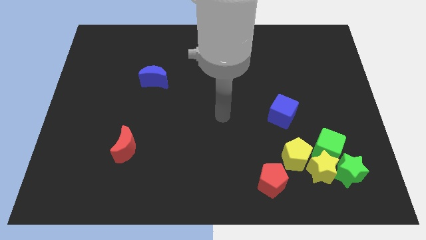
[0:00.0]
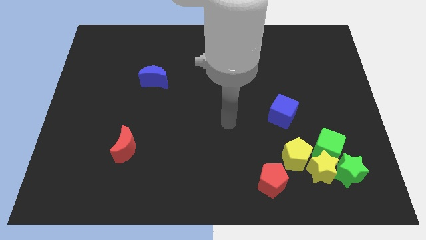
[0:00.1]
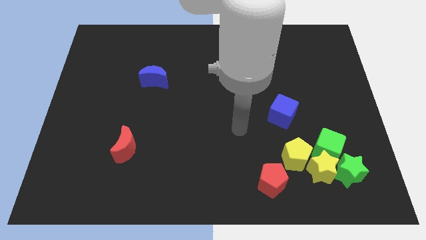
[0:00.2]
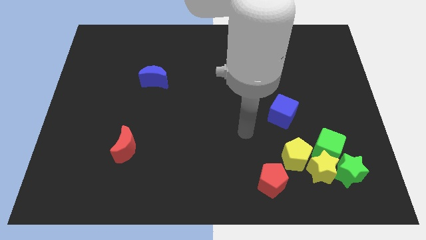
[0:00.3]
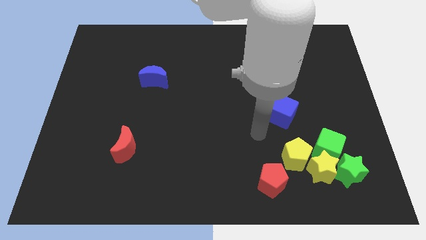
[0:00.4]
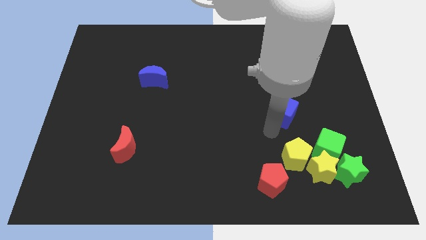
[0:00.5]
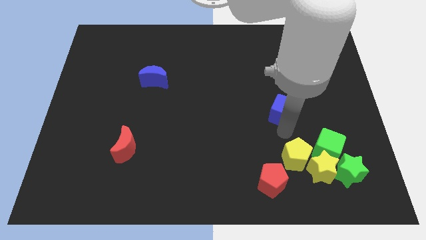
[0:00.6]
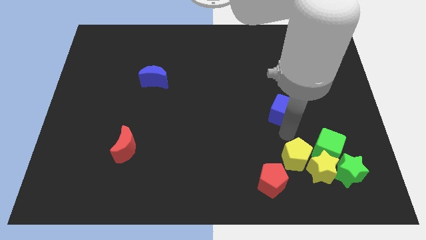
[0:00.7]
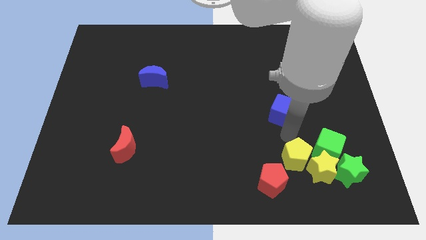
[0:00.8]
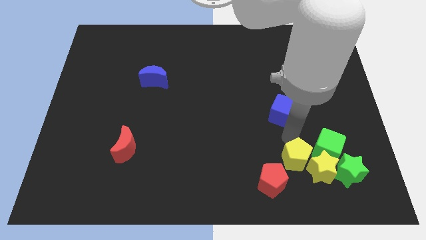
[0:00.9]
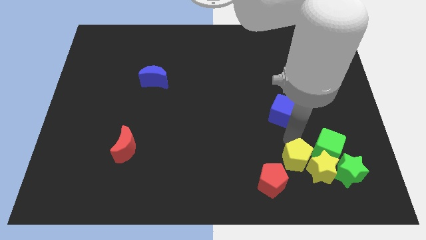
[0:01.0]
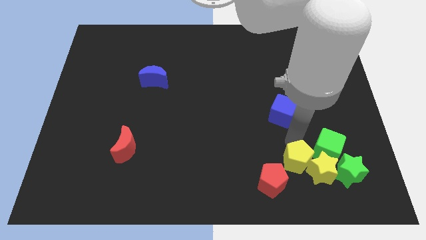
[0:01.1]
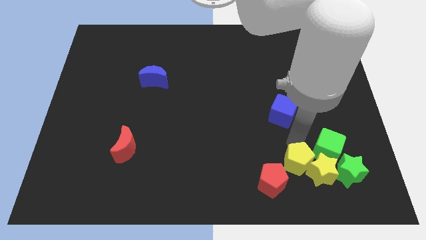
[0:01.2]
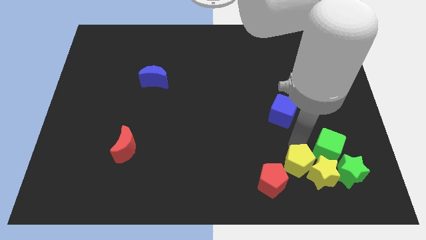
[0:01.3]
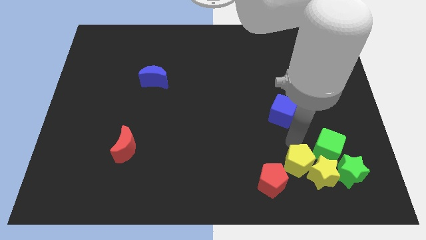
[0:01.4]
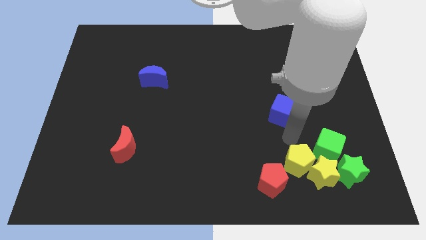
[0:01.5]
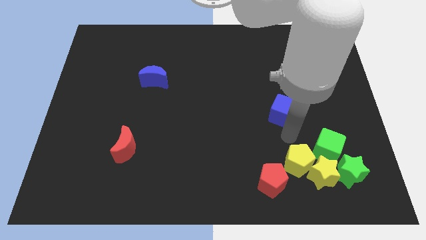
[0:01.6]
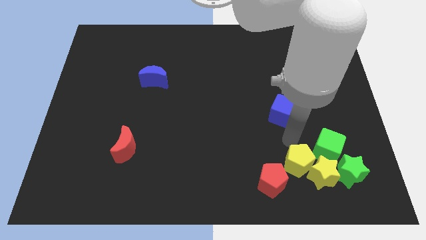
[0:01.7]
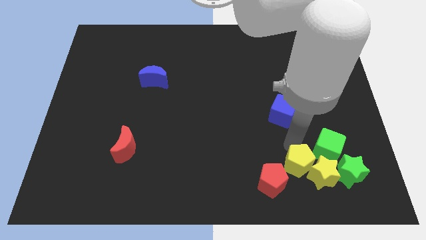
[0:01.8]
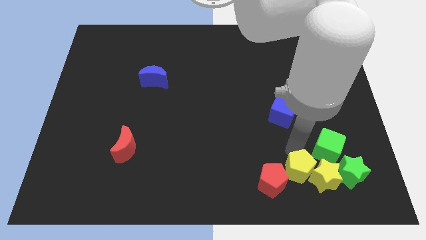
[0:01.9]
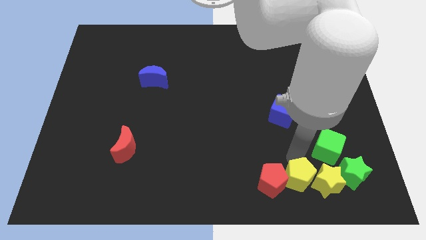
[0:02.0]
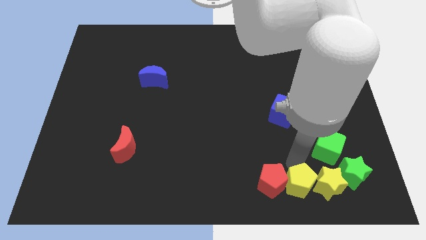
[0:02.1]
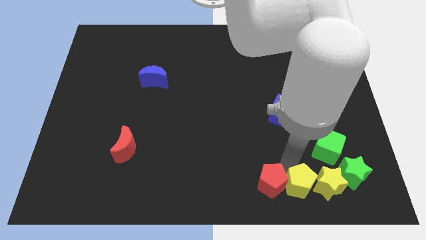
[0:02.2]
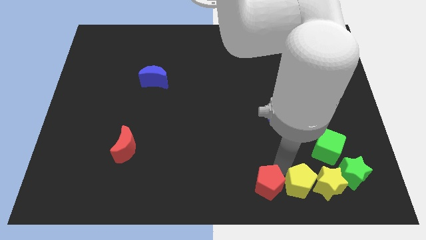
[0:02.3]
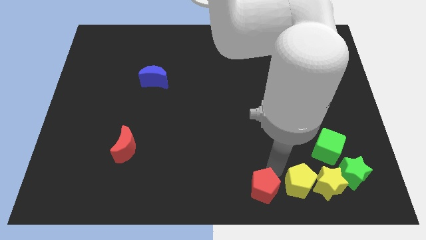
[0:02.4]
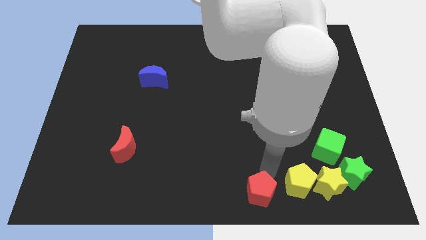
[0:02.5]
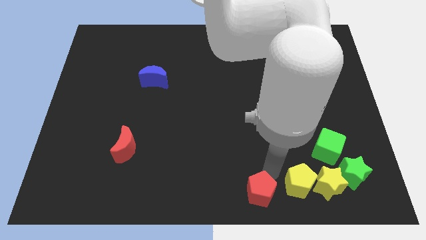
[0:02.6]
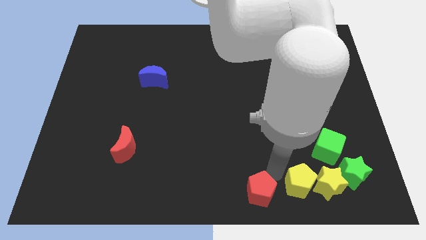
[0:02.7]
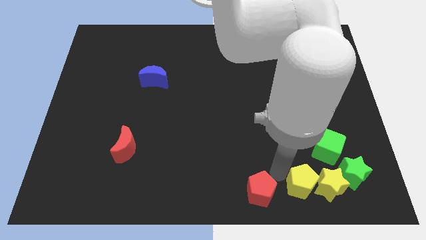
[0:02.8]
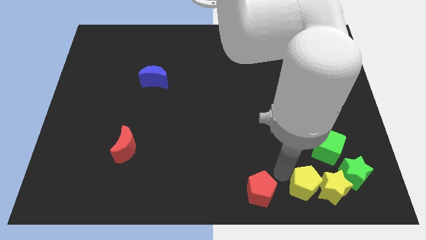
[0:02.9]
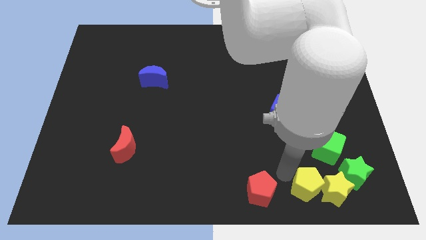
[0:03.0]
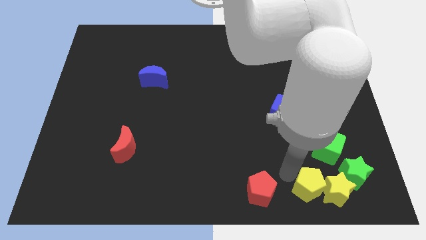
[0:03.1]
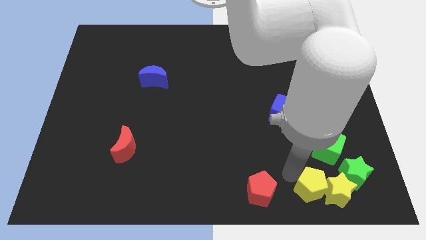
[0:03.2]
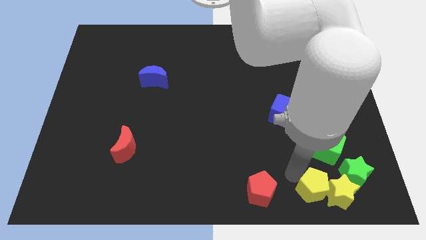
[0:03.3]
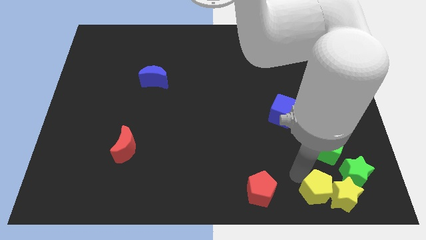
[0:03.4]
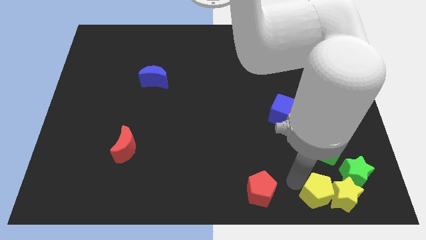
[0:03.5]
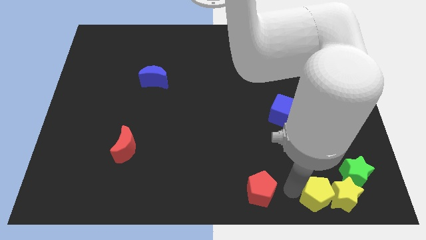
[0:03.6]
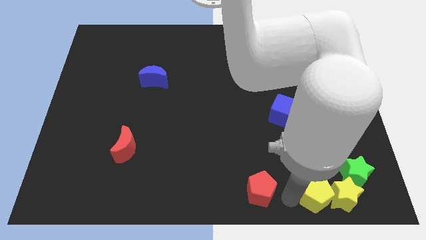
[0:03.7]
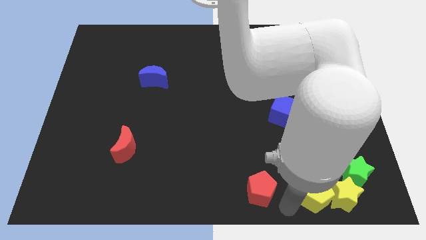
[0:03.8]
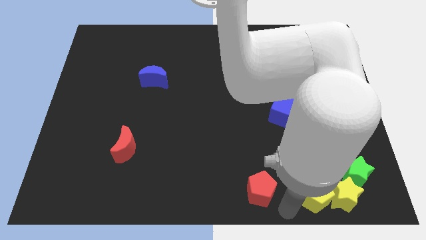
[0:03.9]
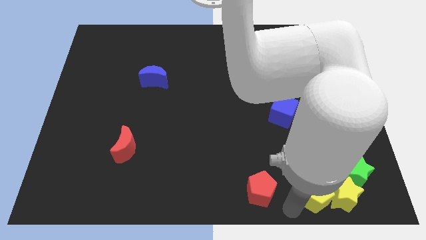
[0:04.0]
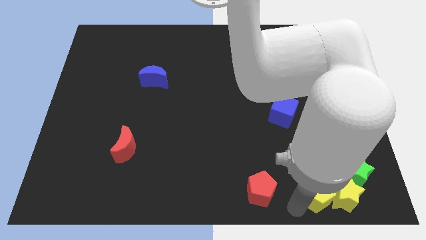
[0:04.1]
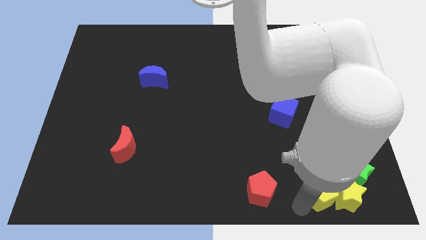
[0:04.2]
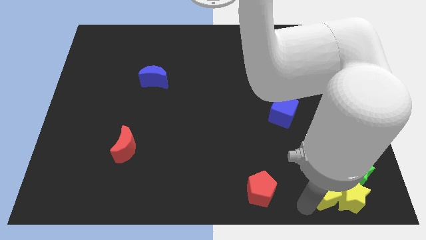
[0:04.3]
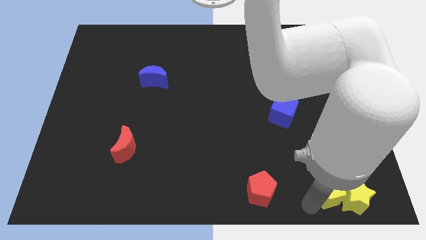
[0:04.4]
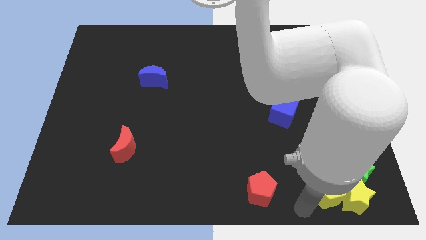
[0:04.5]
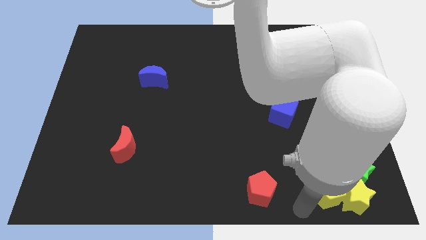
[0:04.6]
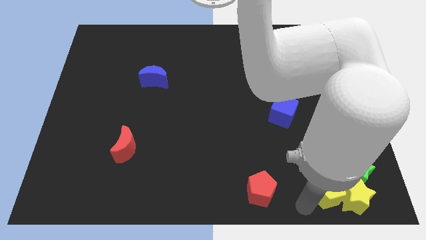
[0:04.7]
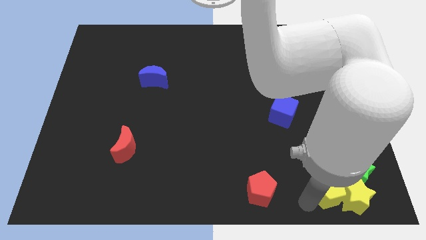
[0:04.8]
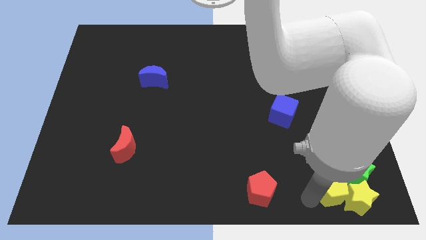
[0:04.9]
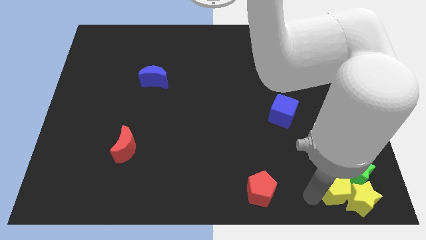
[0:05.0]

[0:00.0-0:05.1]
put the yellow pentagon to the green star

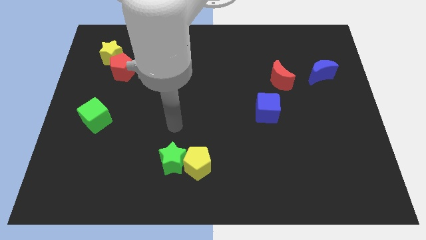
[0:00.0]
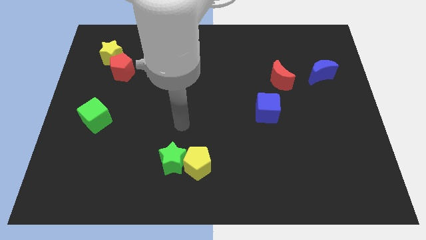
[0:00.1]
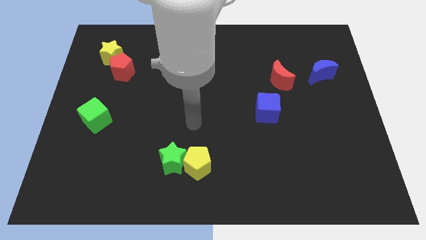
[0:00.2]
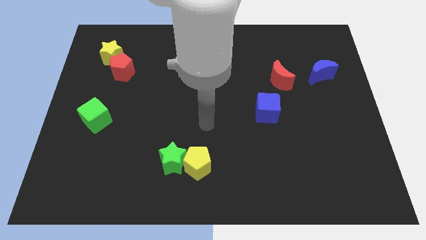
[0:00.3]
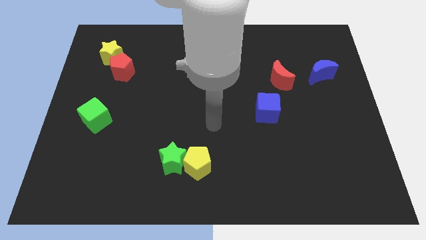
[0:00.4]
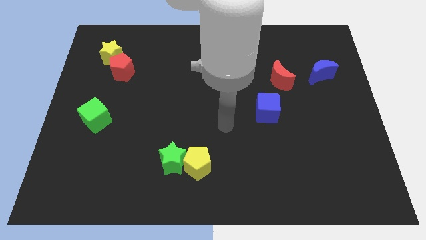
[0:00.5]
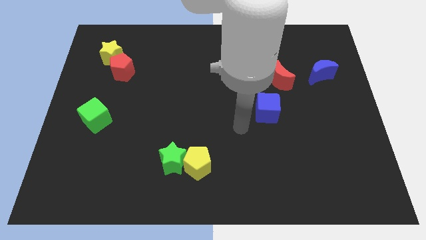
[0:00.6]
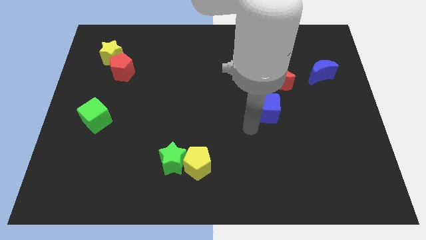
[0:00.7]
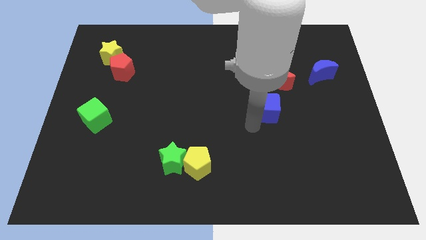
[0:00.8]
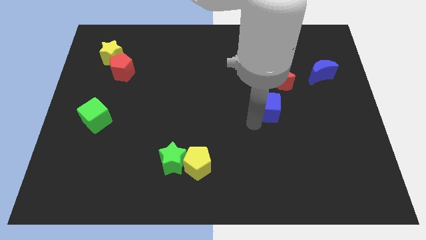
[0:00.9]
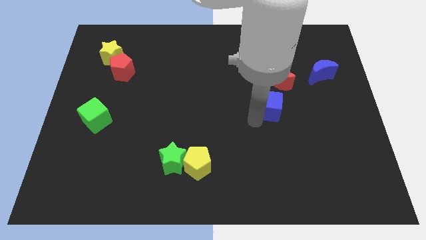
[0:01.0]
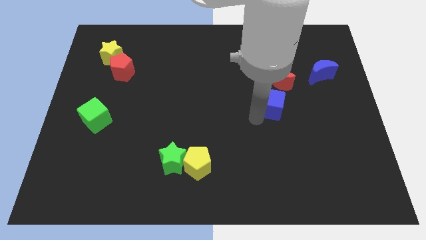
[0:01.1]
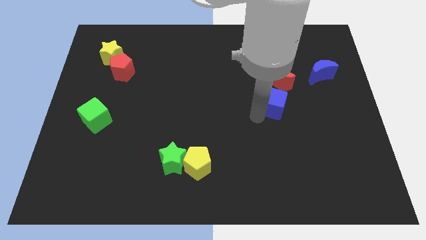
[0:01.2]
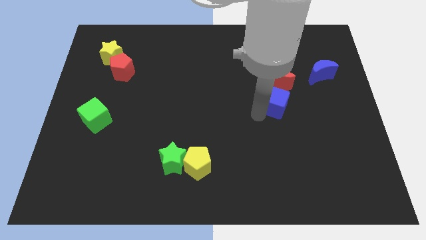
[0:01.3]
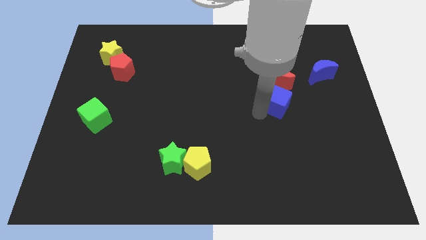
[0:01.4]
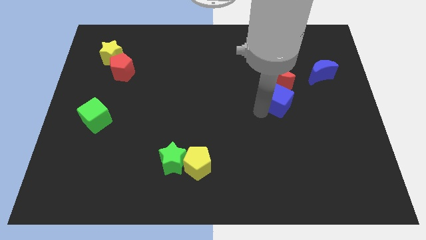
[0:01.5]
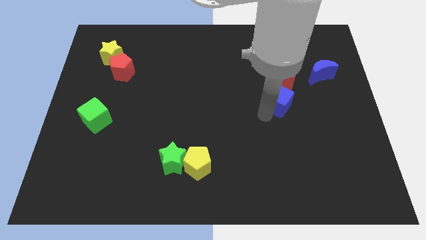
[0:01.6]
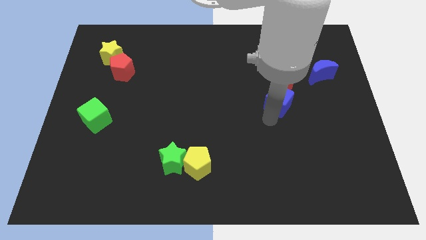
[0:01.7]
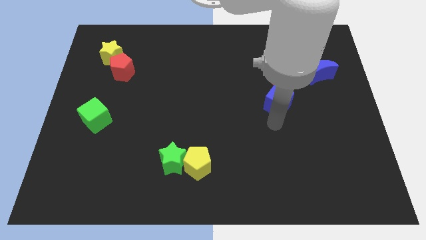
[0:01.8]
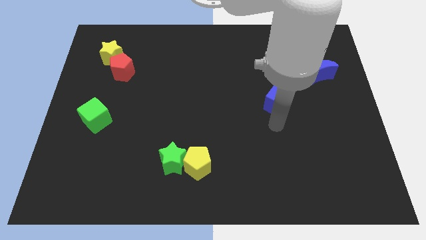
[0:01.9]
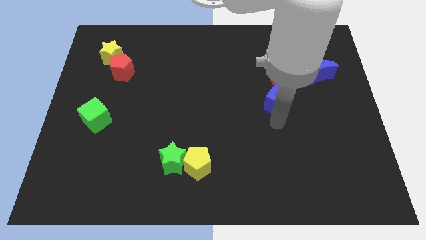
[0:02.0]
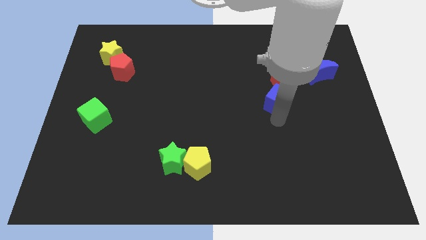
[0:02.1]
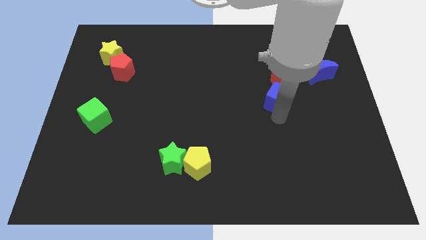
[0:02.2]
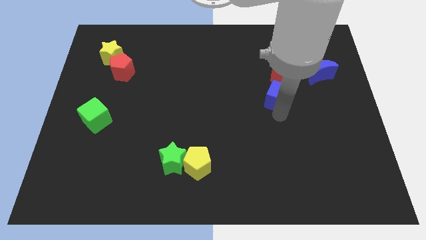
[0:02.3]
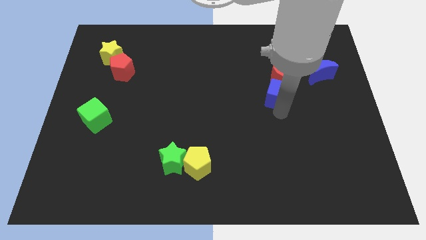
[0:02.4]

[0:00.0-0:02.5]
put the blue cube close to the red moon

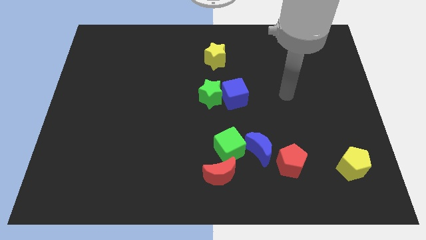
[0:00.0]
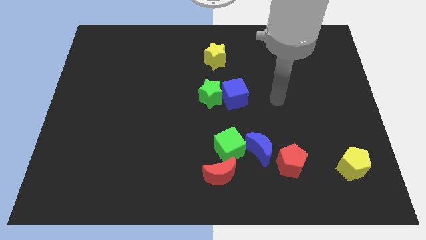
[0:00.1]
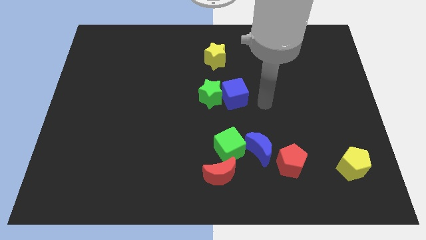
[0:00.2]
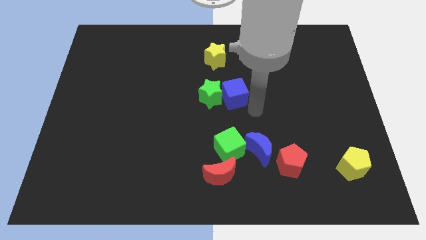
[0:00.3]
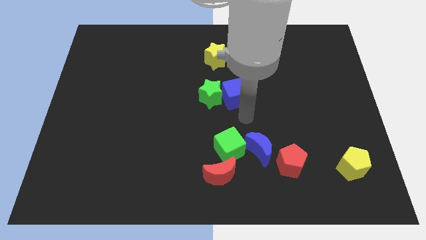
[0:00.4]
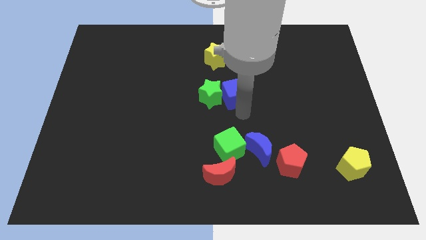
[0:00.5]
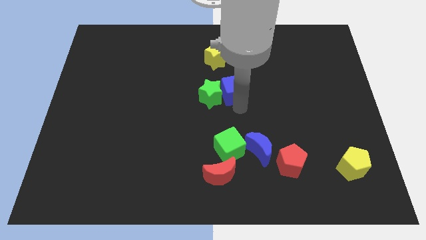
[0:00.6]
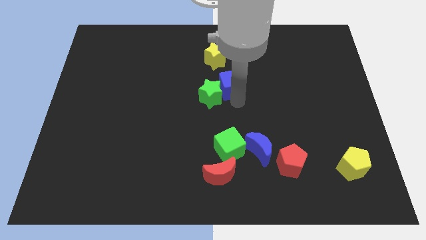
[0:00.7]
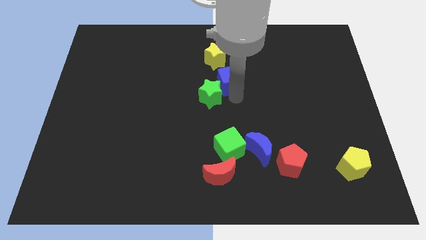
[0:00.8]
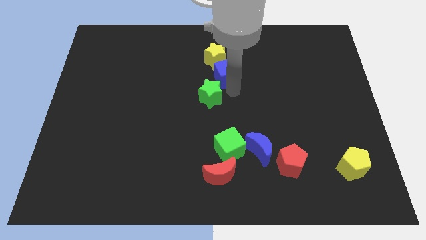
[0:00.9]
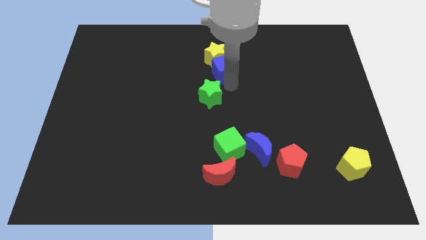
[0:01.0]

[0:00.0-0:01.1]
put the blue cube close to the yellow star
